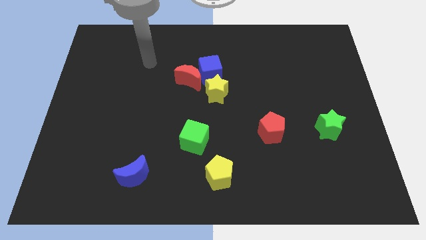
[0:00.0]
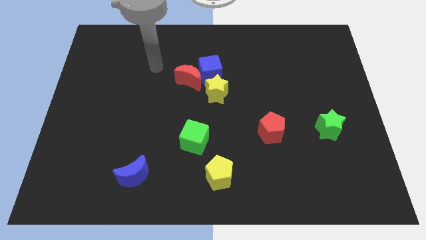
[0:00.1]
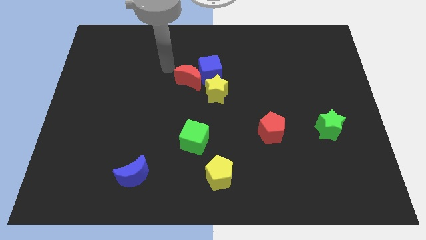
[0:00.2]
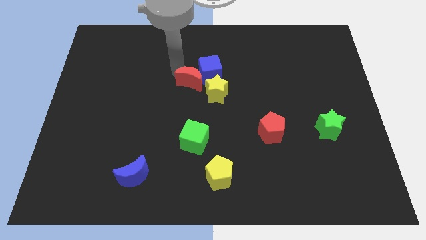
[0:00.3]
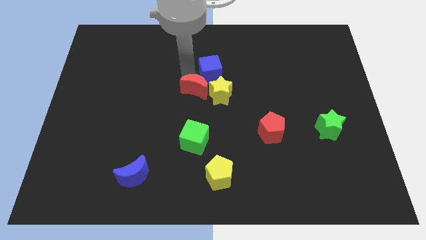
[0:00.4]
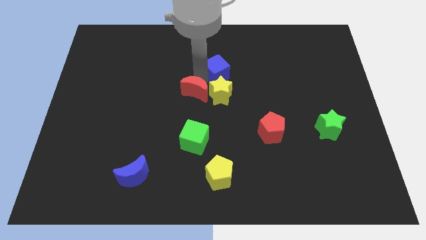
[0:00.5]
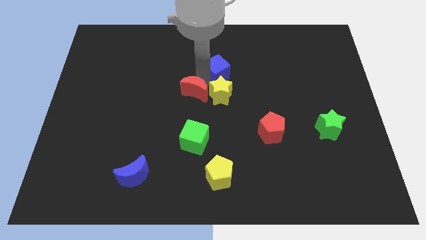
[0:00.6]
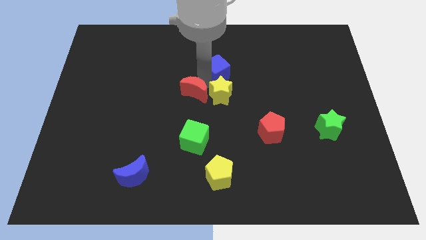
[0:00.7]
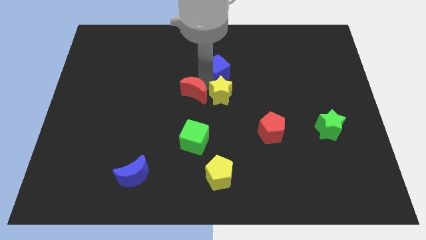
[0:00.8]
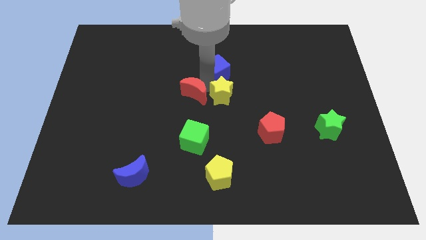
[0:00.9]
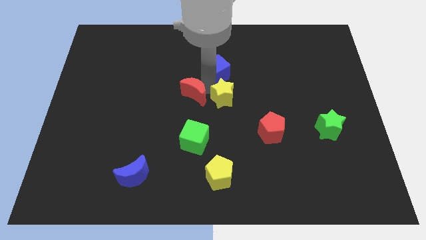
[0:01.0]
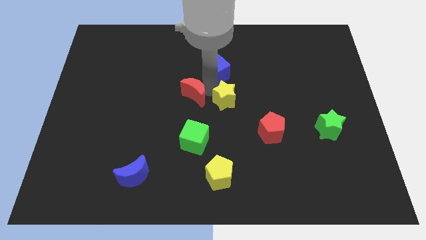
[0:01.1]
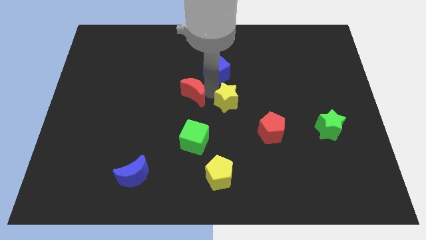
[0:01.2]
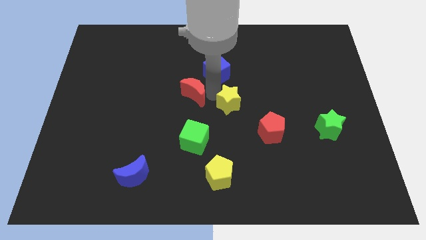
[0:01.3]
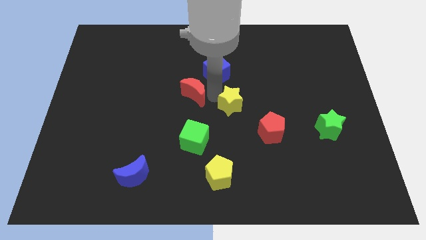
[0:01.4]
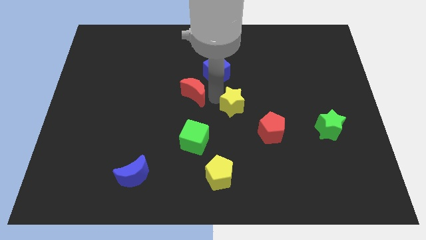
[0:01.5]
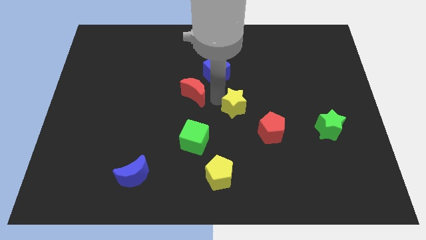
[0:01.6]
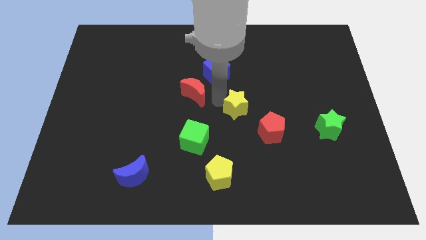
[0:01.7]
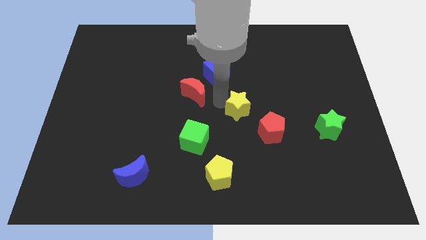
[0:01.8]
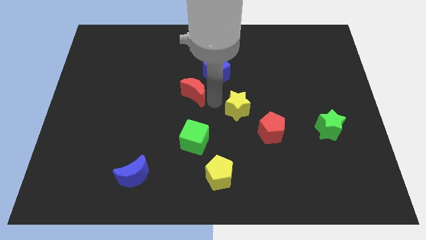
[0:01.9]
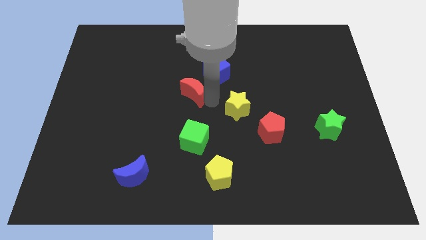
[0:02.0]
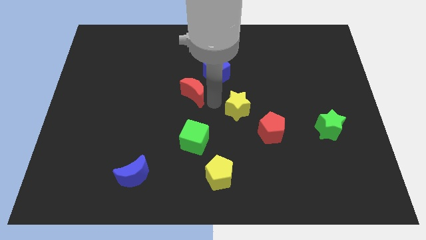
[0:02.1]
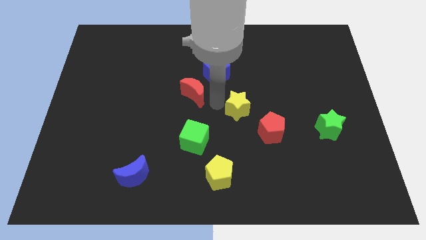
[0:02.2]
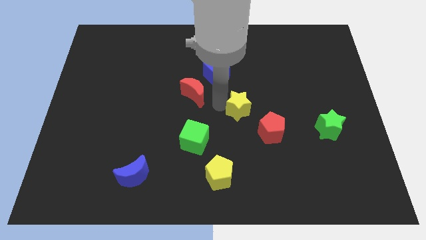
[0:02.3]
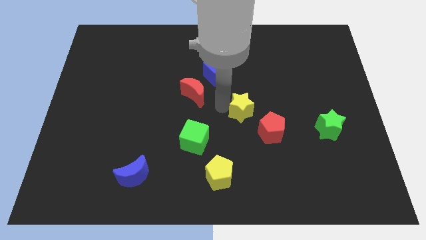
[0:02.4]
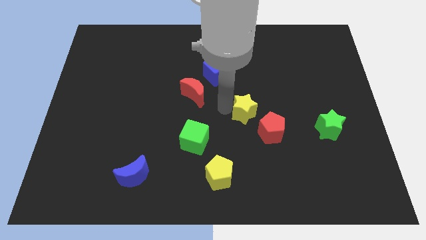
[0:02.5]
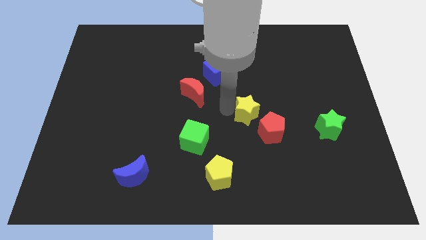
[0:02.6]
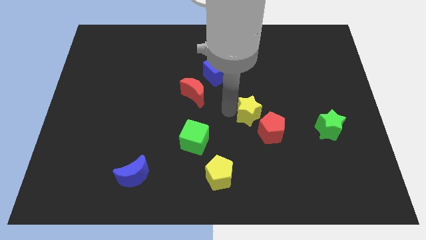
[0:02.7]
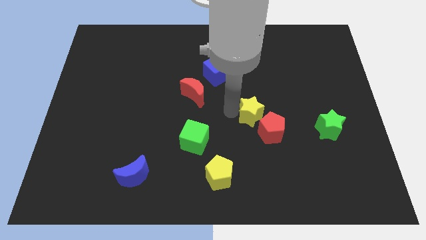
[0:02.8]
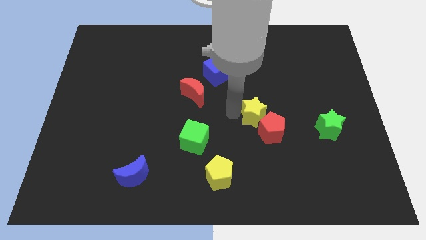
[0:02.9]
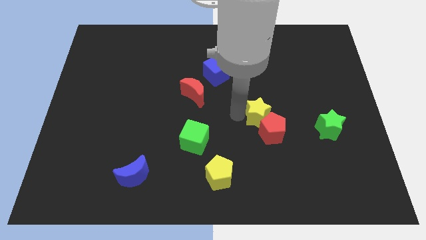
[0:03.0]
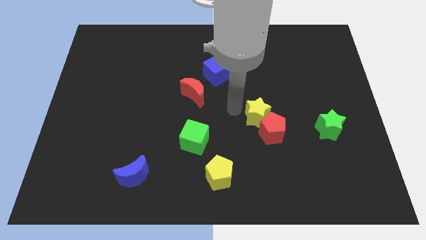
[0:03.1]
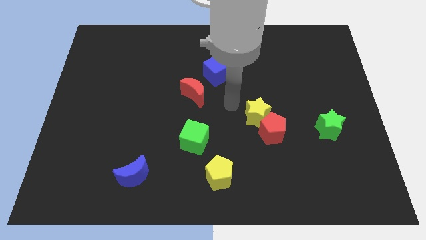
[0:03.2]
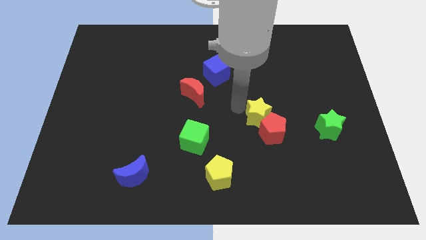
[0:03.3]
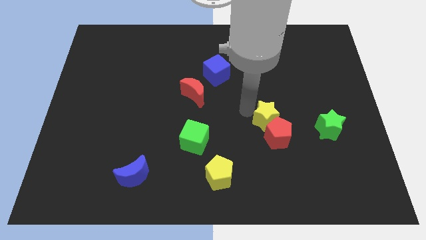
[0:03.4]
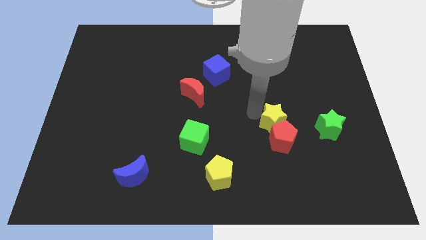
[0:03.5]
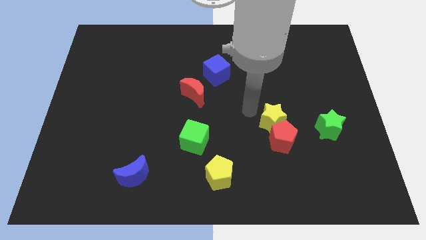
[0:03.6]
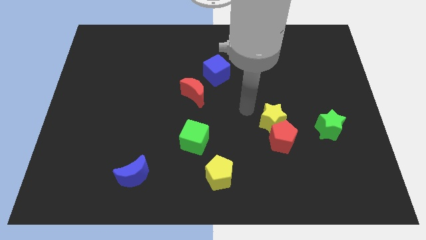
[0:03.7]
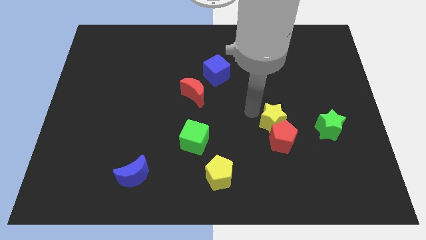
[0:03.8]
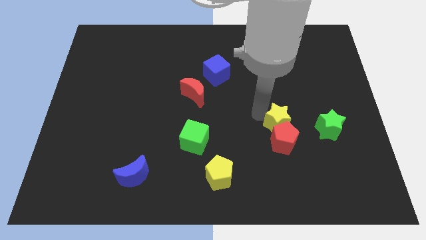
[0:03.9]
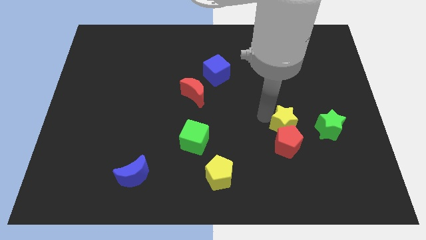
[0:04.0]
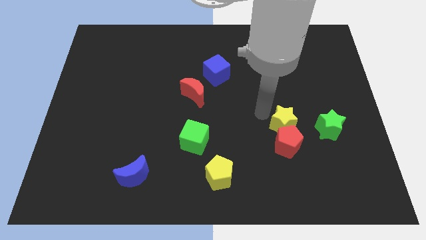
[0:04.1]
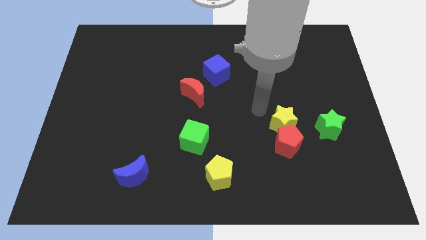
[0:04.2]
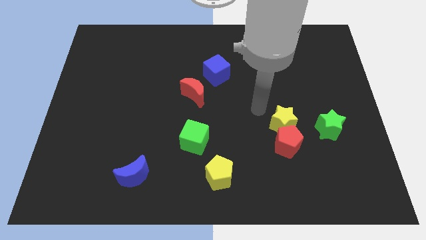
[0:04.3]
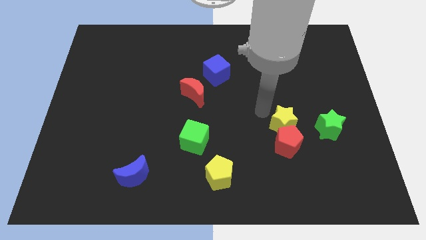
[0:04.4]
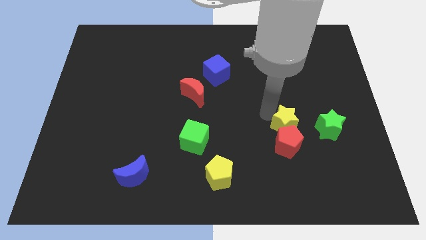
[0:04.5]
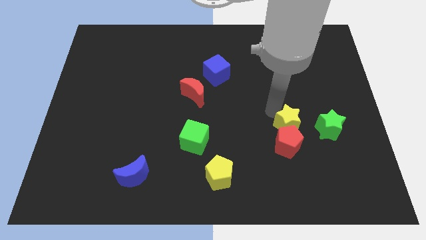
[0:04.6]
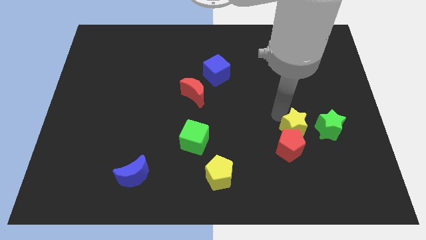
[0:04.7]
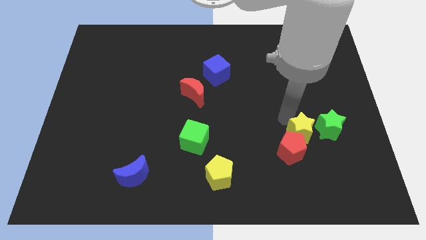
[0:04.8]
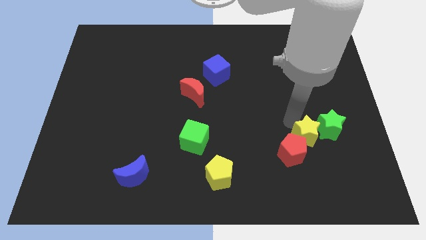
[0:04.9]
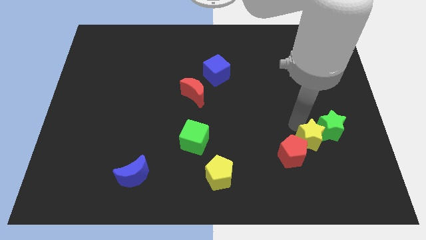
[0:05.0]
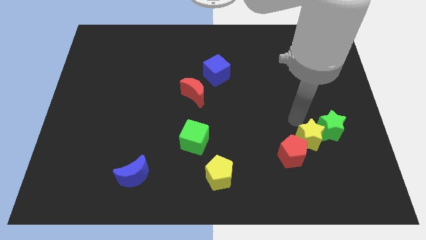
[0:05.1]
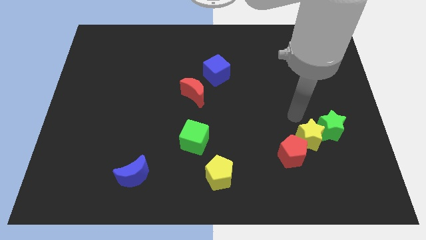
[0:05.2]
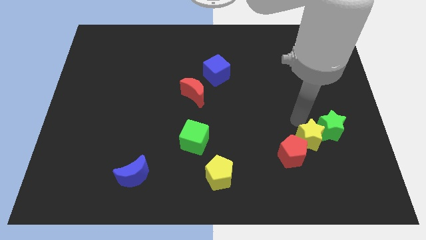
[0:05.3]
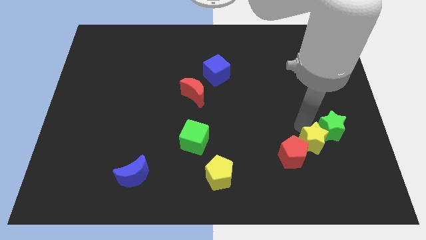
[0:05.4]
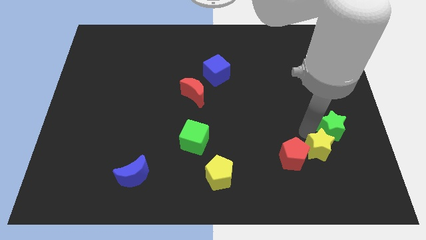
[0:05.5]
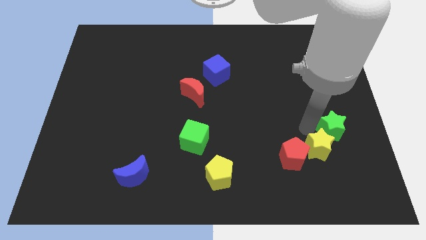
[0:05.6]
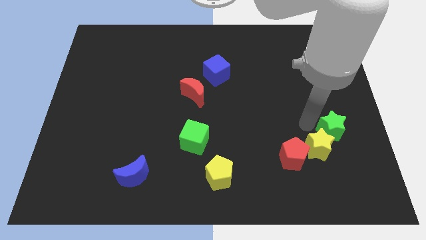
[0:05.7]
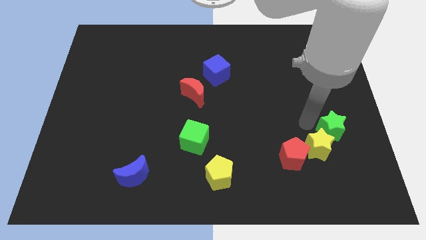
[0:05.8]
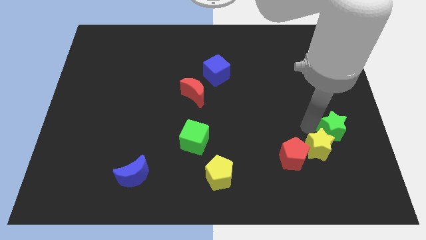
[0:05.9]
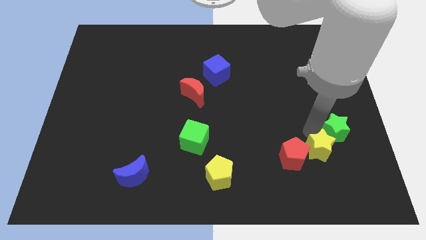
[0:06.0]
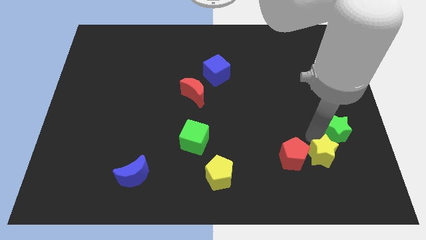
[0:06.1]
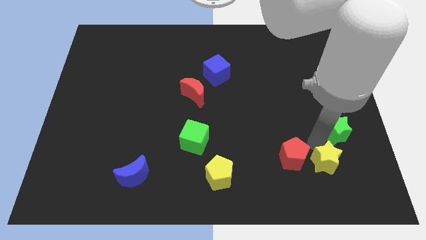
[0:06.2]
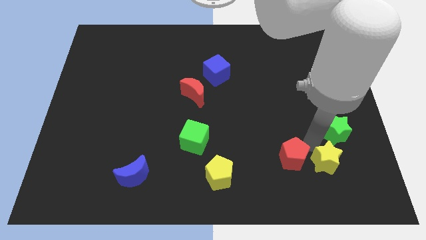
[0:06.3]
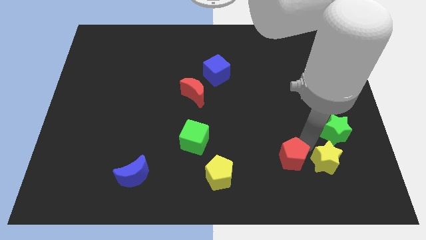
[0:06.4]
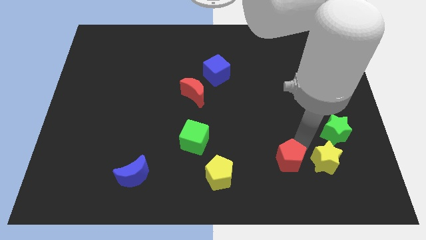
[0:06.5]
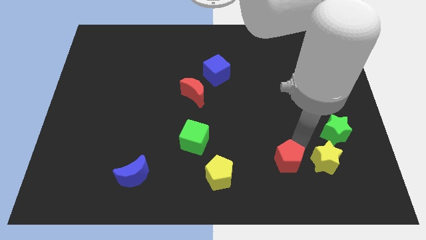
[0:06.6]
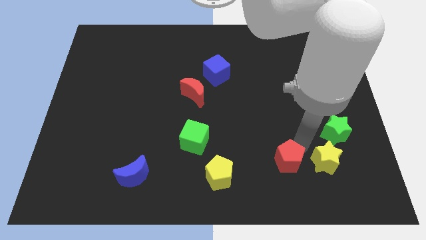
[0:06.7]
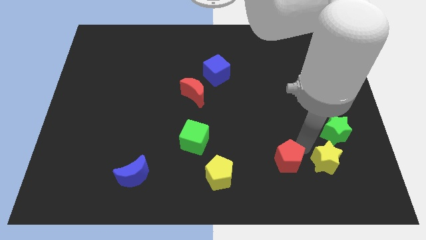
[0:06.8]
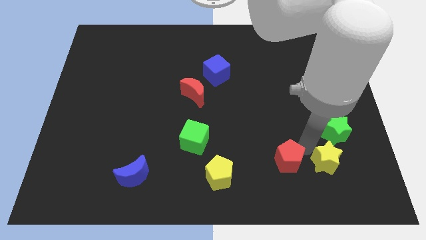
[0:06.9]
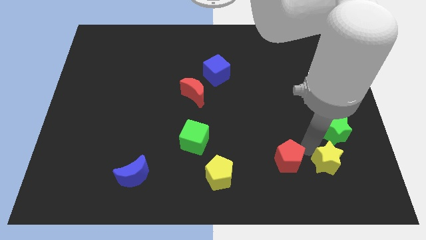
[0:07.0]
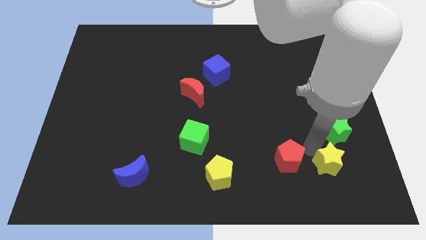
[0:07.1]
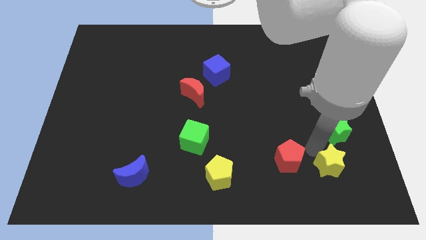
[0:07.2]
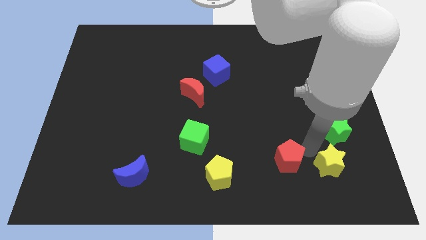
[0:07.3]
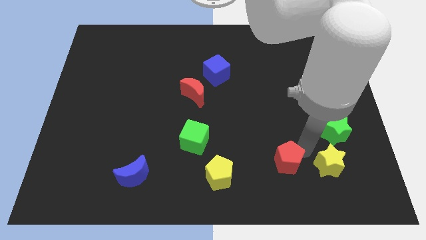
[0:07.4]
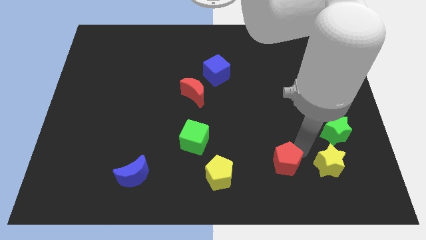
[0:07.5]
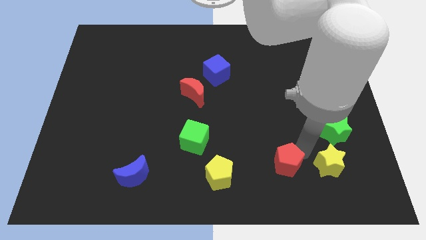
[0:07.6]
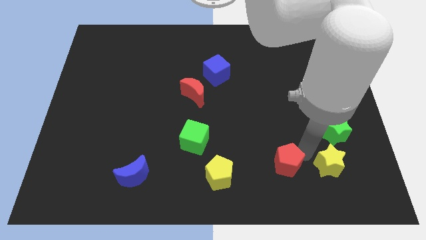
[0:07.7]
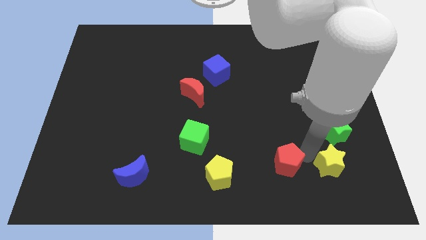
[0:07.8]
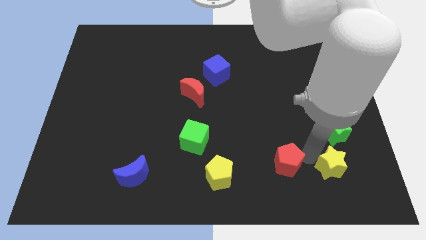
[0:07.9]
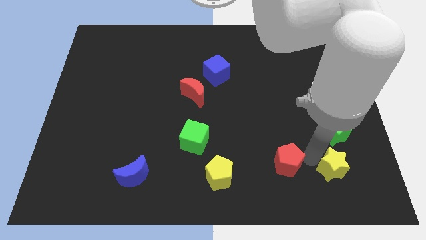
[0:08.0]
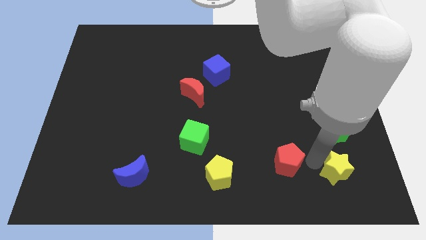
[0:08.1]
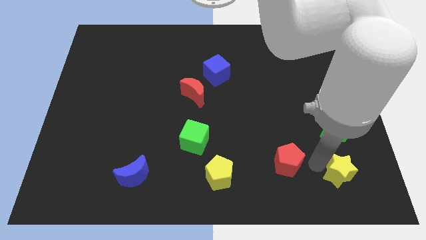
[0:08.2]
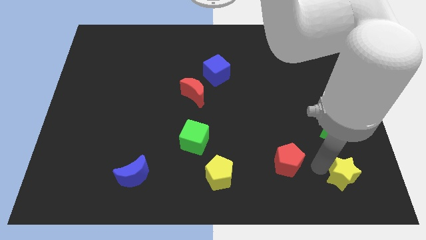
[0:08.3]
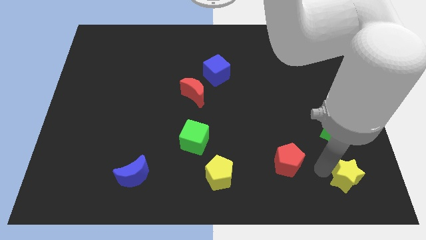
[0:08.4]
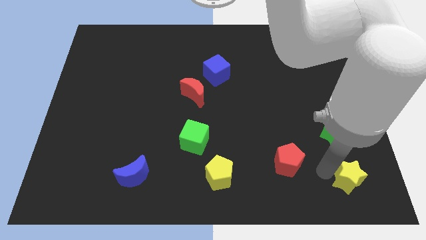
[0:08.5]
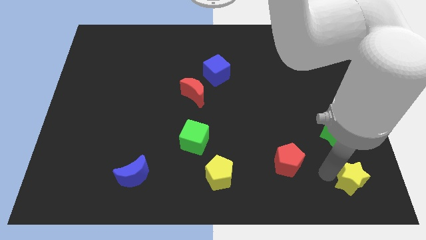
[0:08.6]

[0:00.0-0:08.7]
move the yellow star to the bottom right of the board
